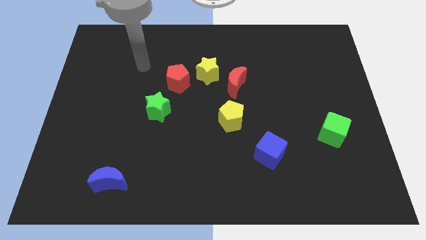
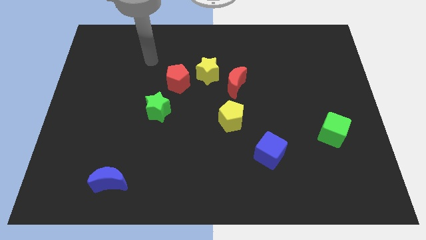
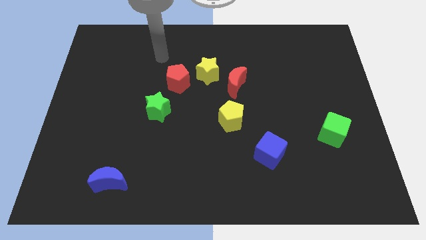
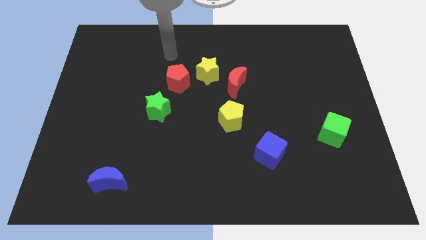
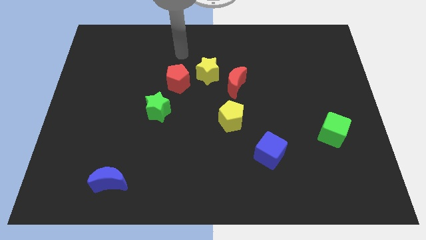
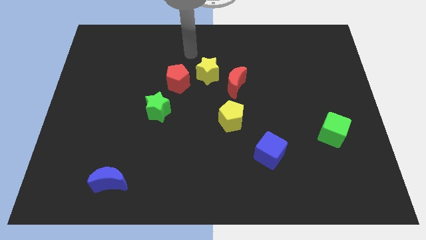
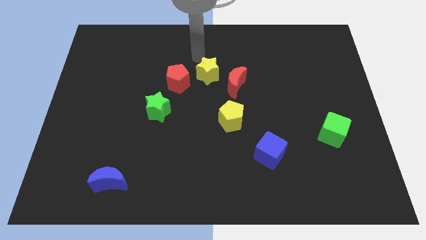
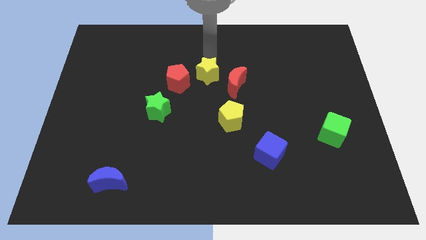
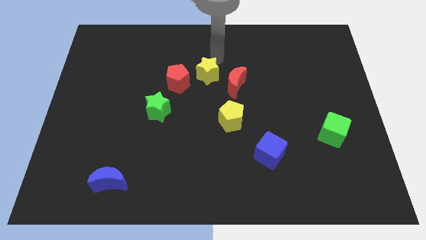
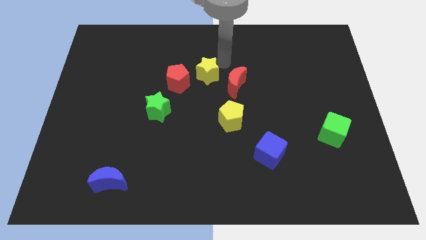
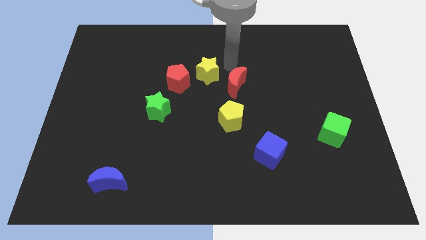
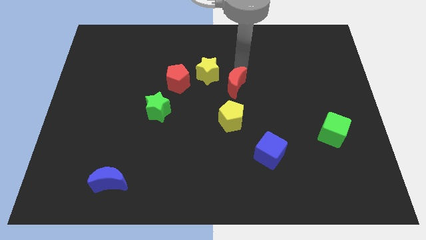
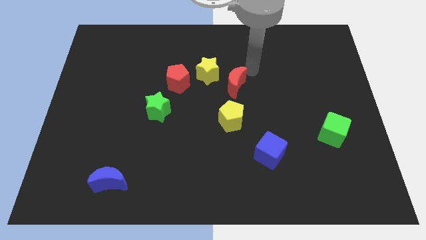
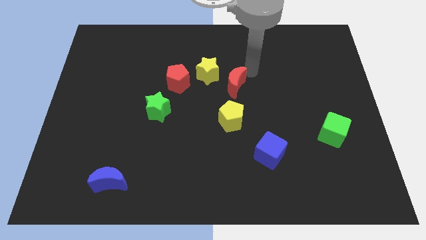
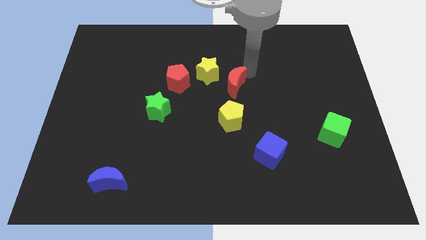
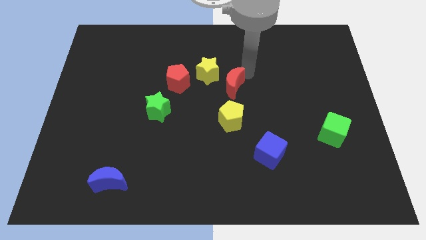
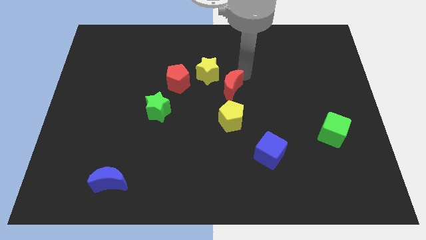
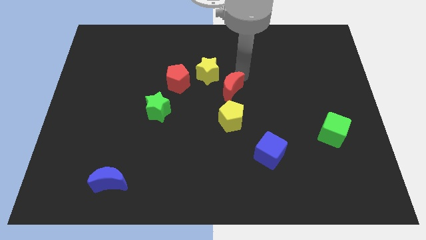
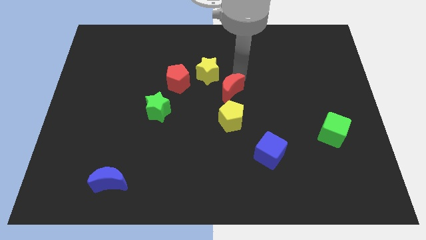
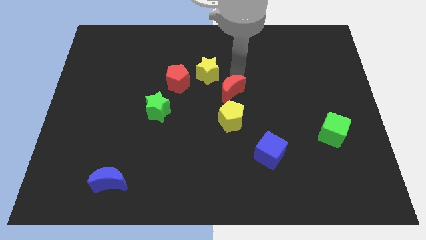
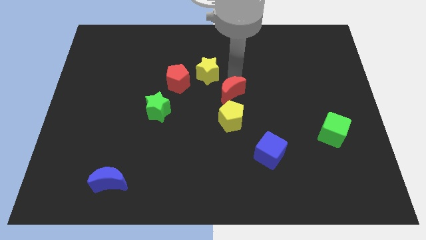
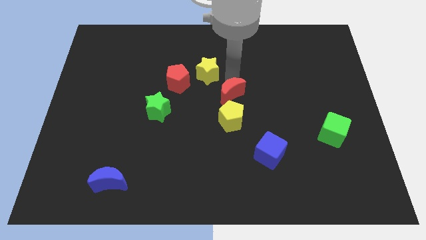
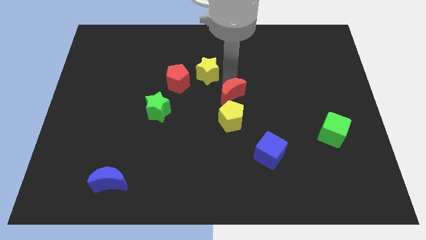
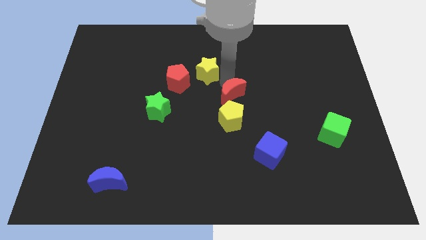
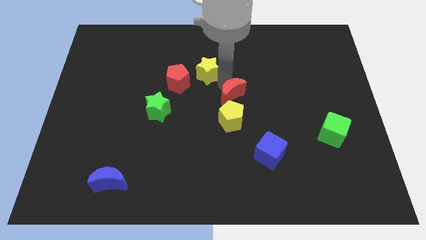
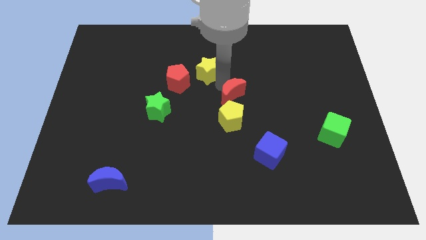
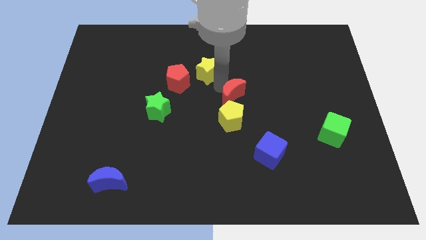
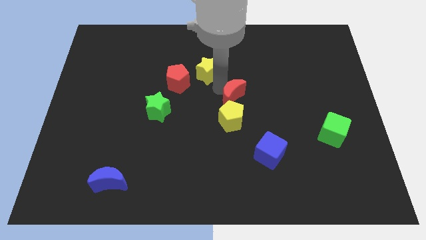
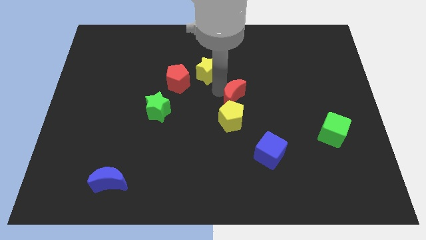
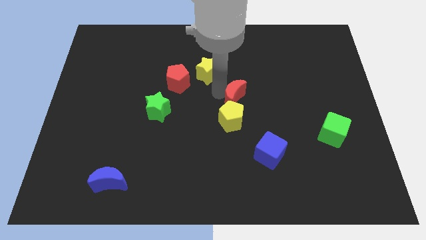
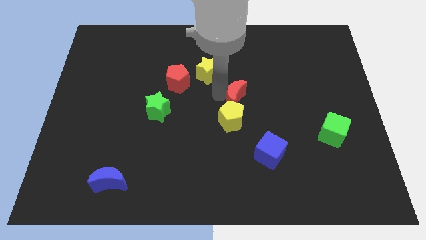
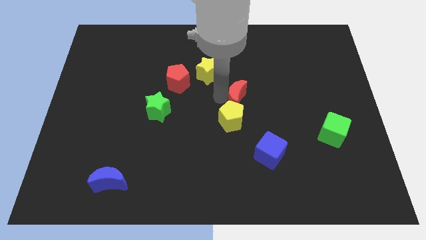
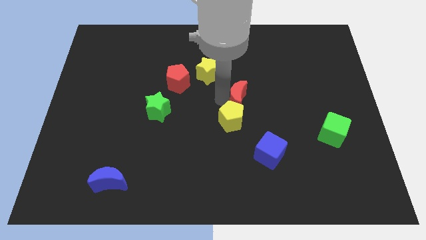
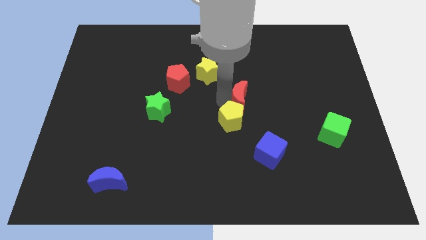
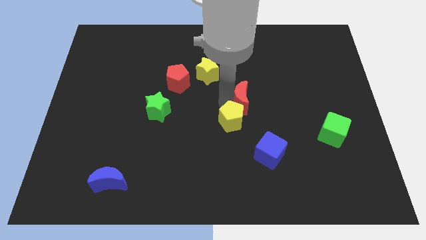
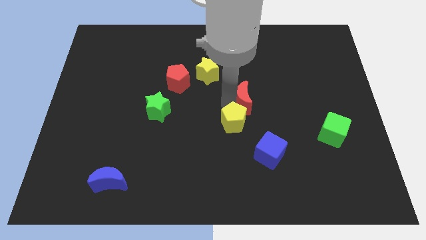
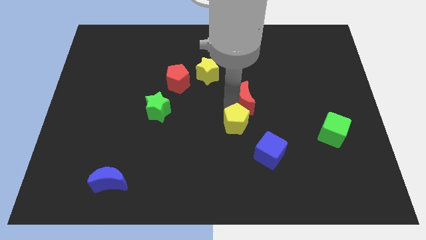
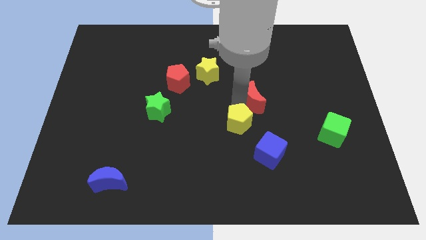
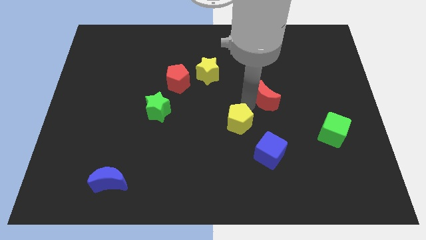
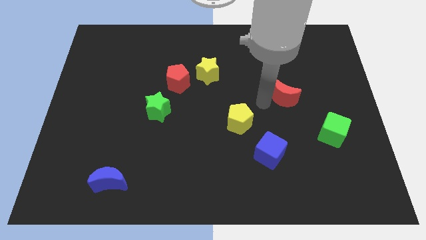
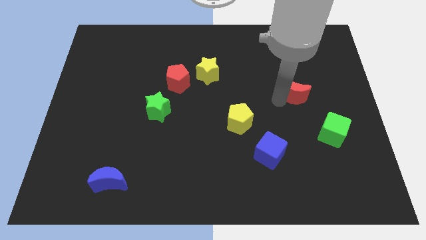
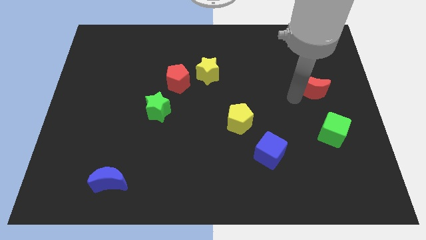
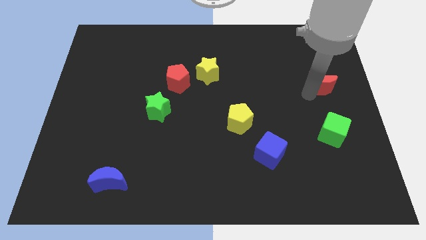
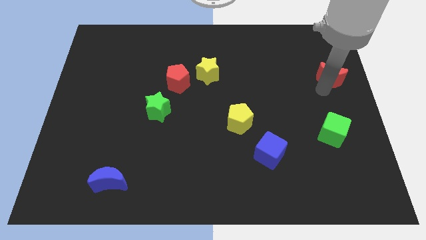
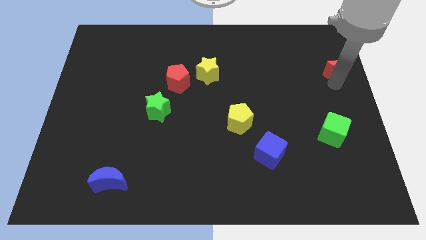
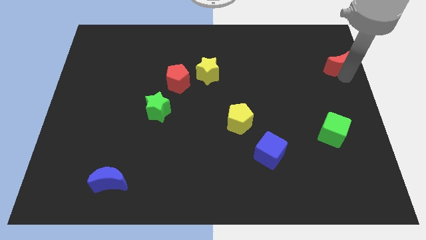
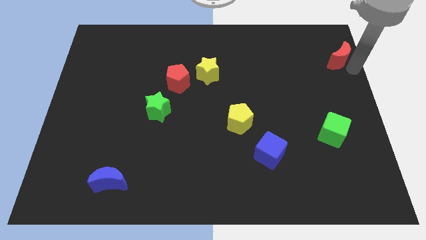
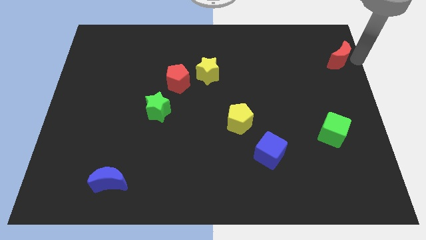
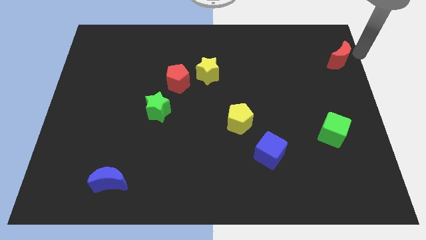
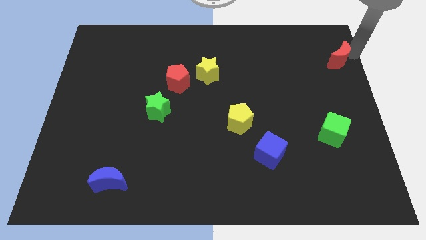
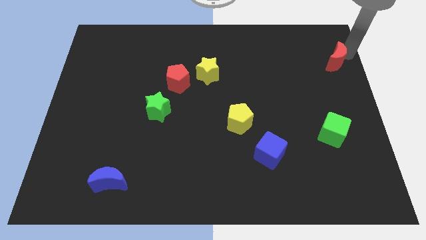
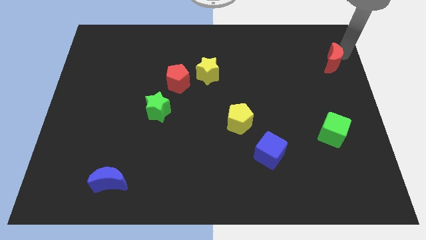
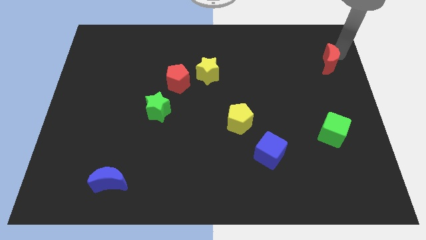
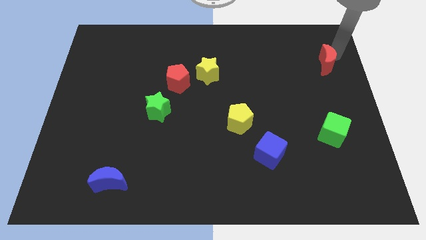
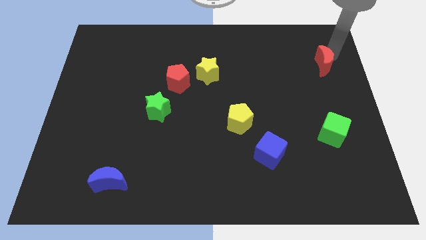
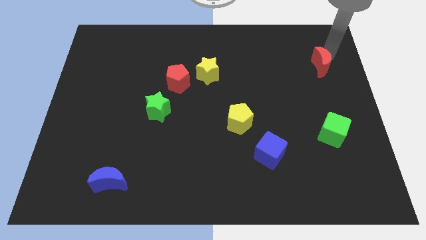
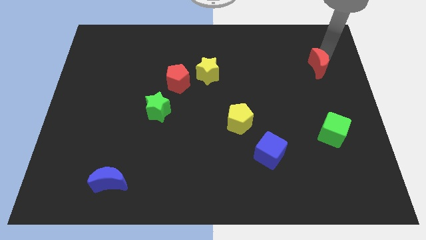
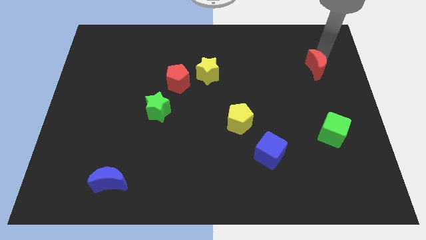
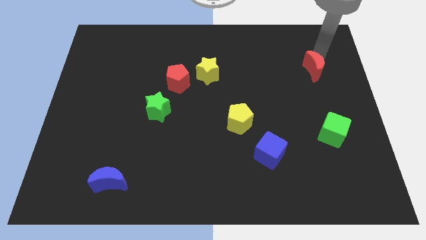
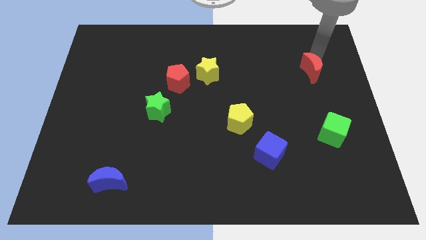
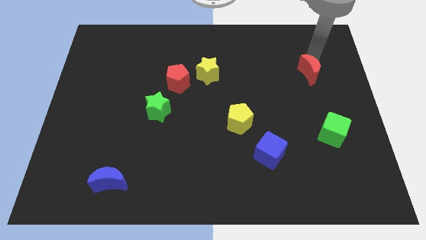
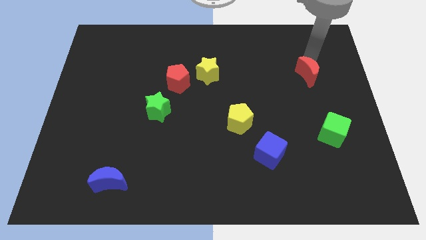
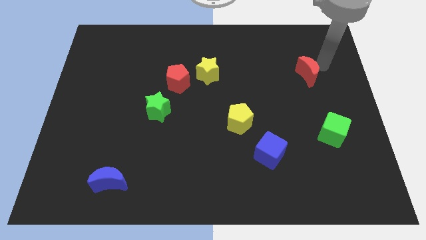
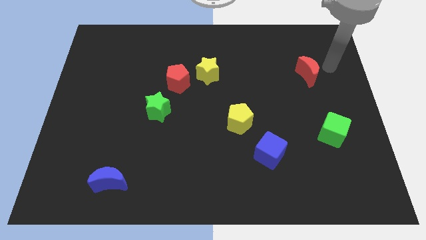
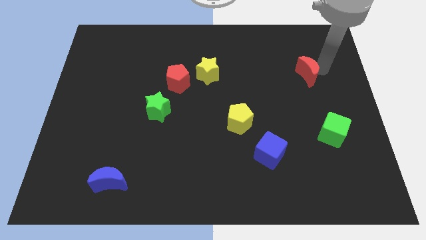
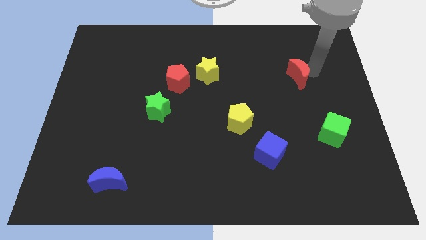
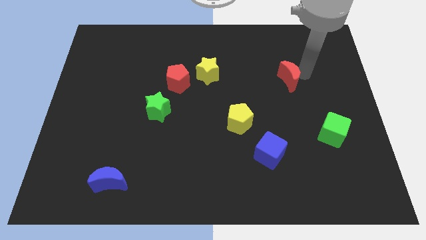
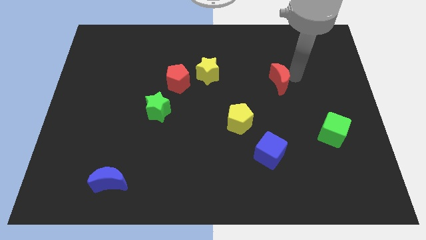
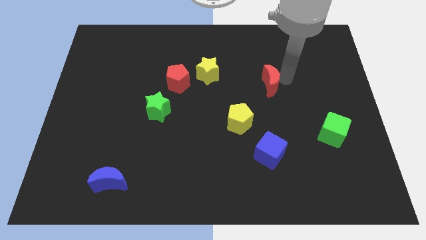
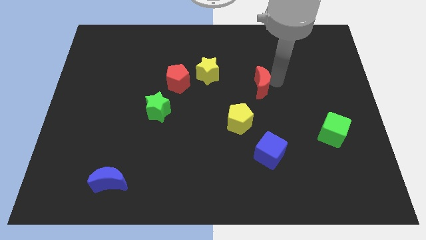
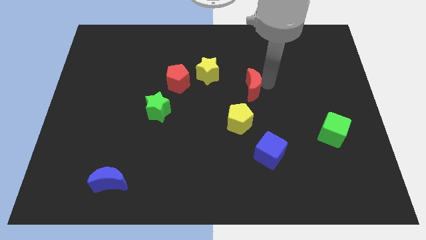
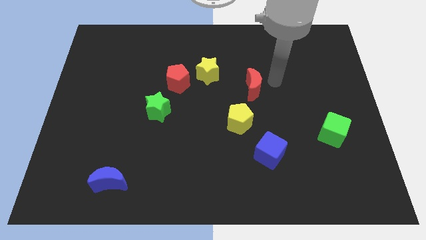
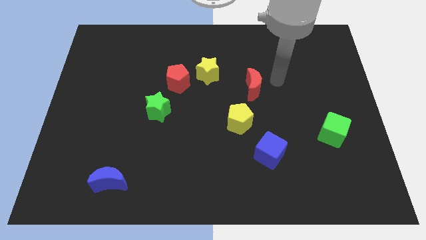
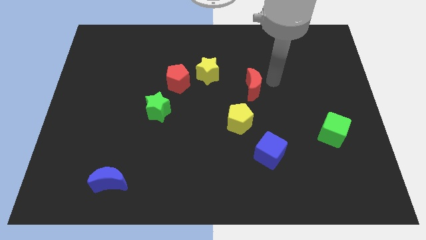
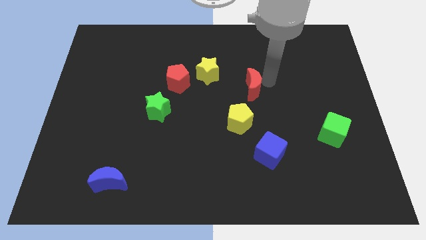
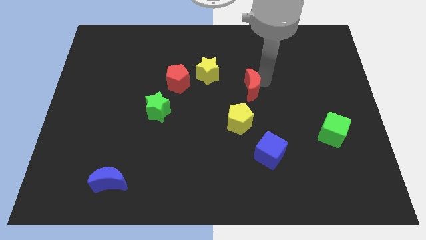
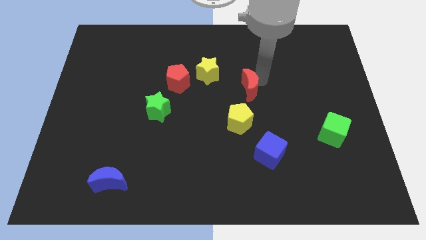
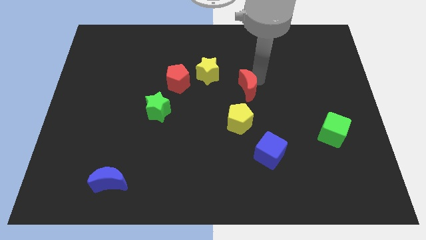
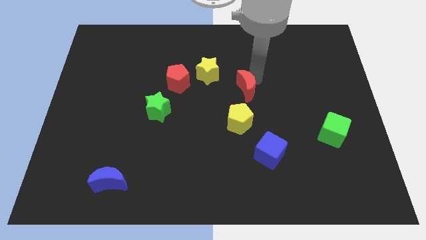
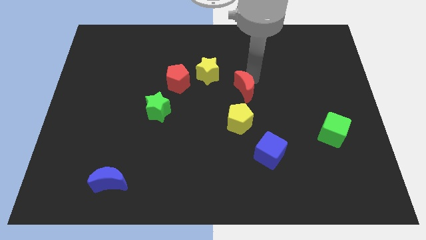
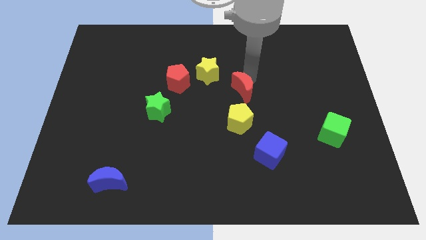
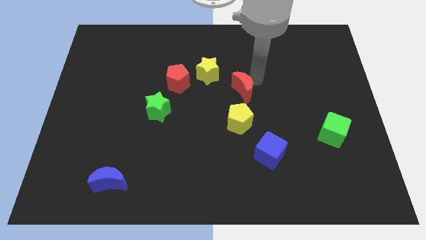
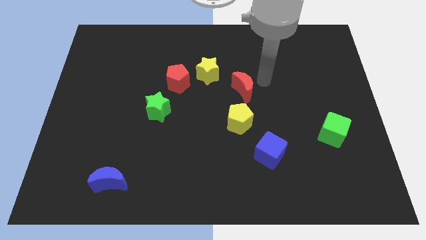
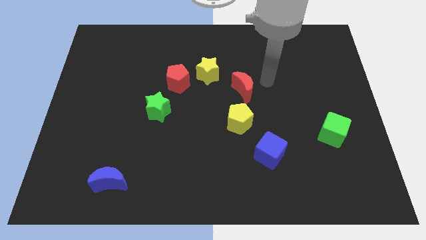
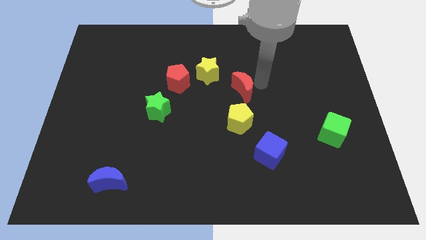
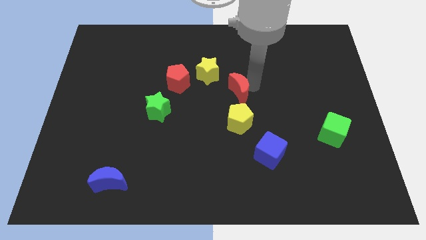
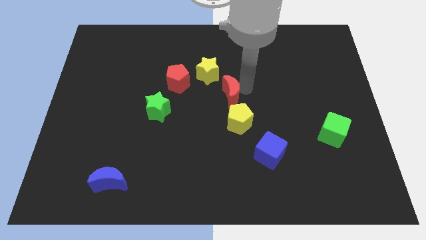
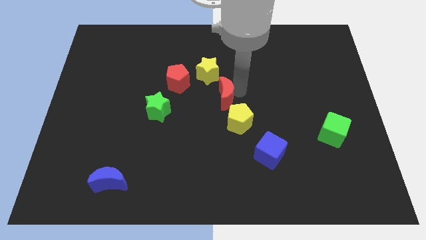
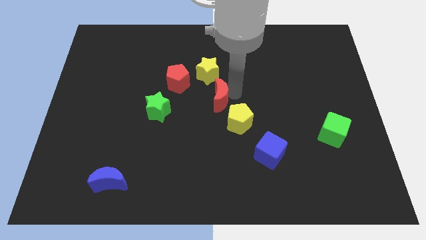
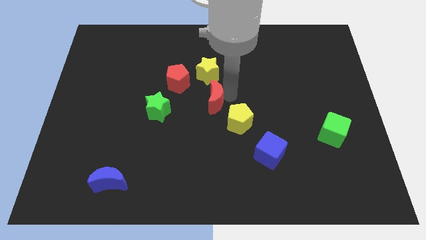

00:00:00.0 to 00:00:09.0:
slide the red moon somewhat down and to the left diagonally
